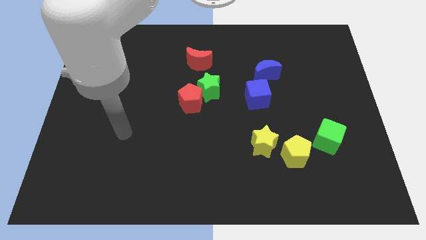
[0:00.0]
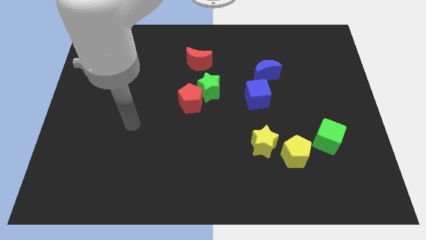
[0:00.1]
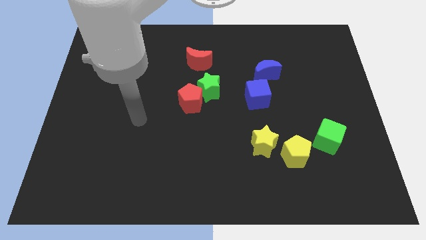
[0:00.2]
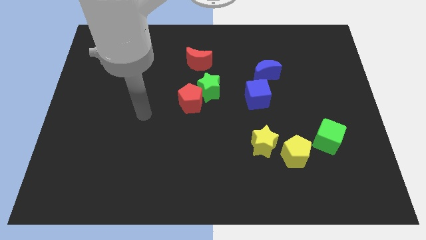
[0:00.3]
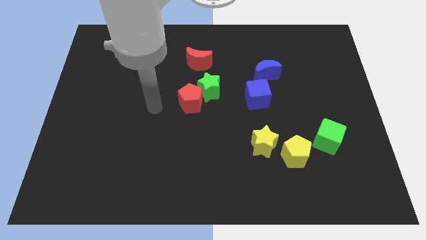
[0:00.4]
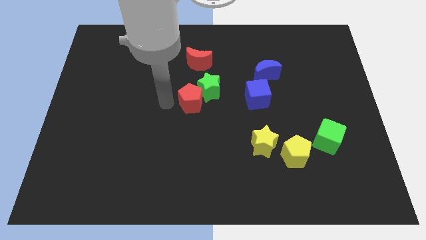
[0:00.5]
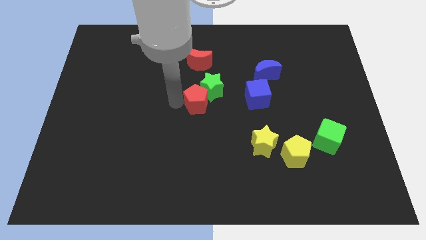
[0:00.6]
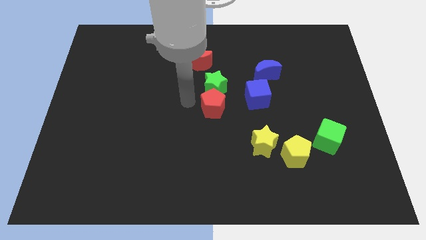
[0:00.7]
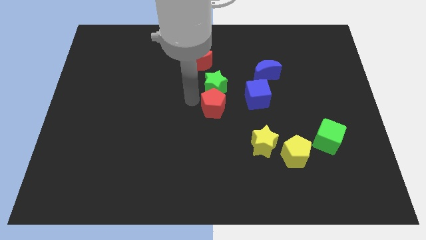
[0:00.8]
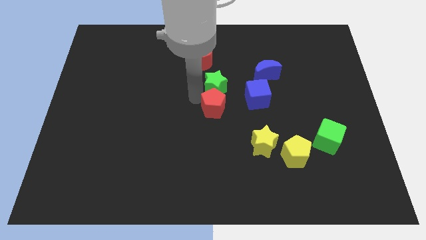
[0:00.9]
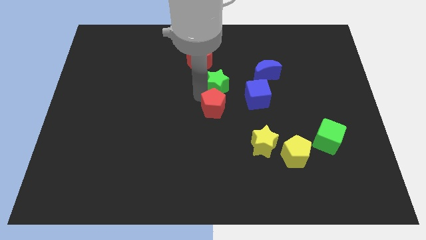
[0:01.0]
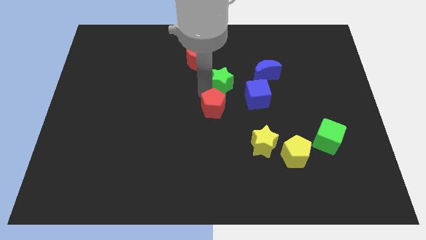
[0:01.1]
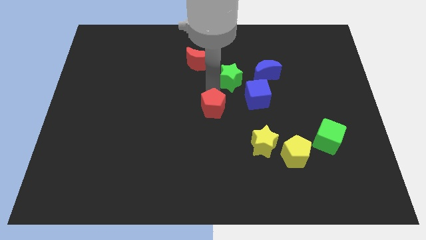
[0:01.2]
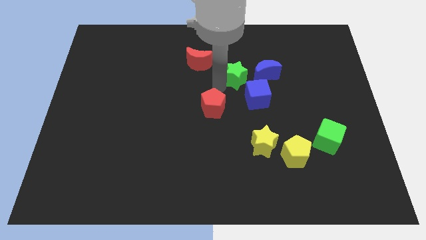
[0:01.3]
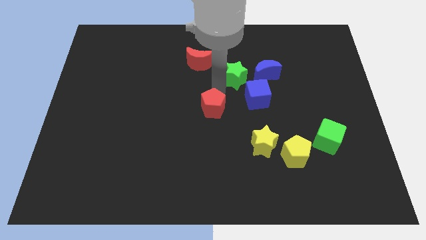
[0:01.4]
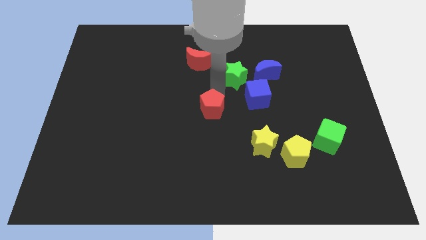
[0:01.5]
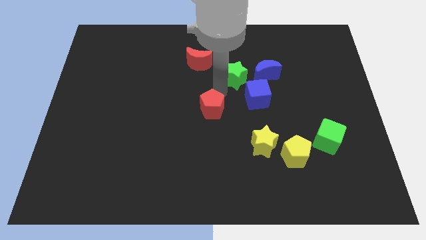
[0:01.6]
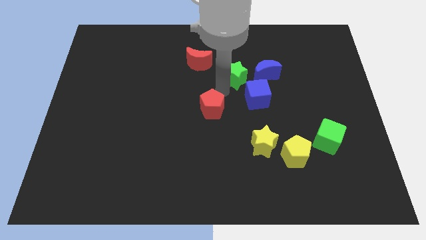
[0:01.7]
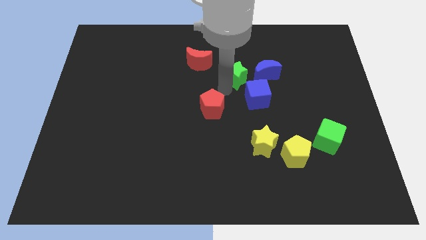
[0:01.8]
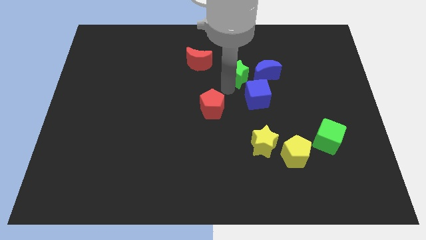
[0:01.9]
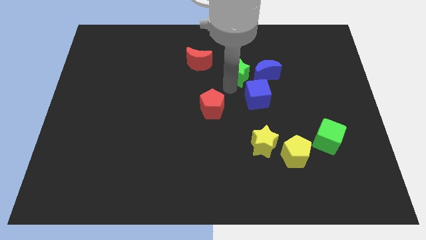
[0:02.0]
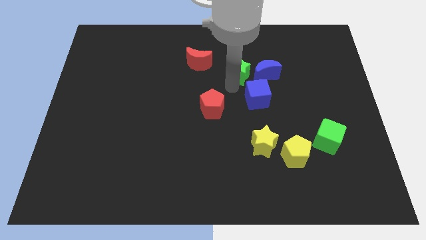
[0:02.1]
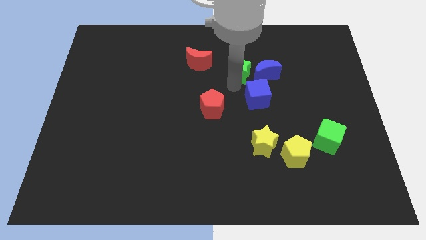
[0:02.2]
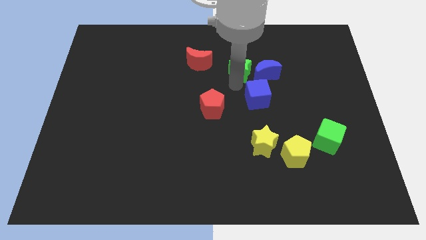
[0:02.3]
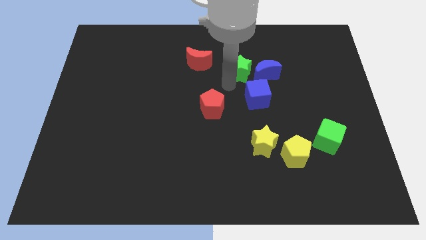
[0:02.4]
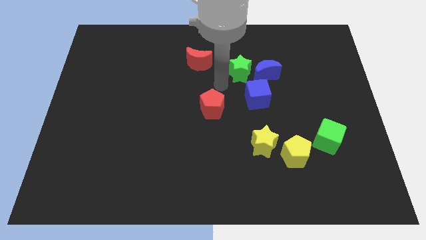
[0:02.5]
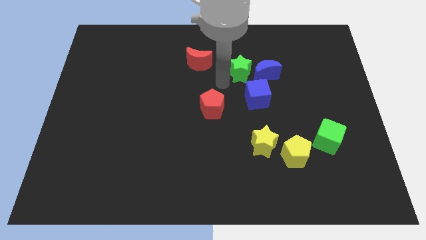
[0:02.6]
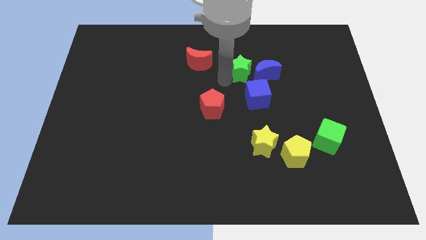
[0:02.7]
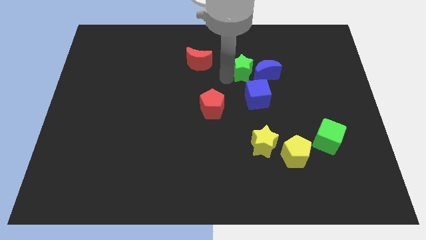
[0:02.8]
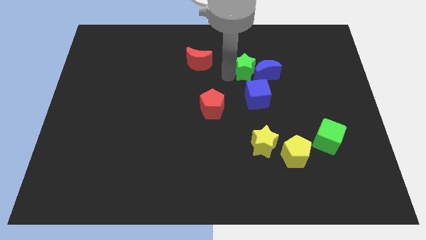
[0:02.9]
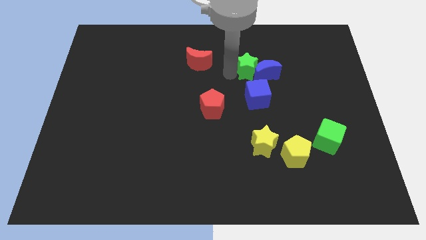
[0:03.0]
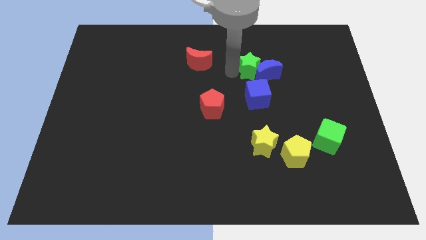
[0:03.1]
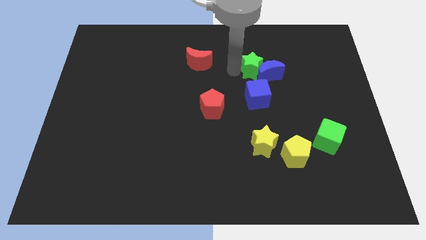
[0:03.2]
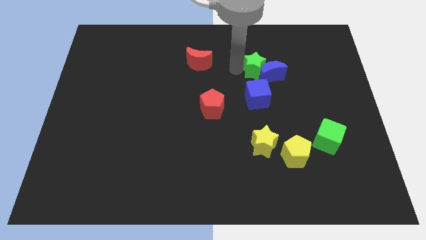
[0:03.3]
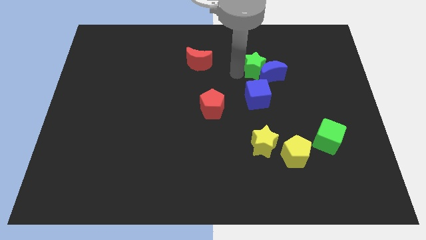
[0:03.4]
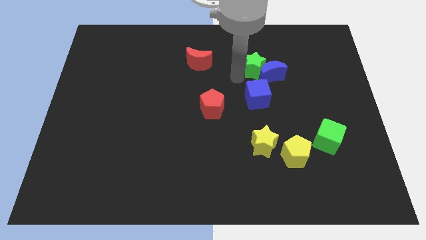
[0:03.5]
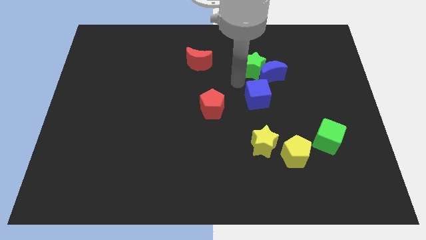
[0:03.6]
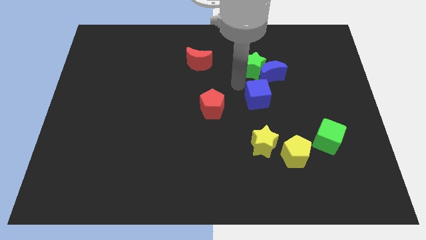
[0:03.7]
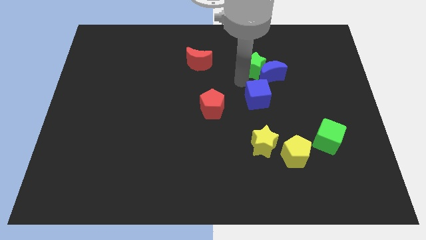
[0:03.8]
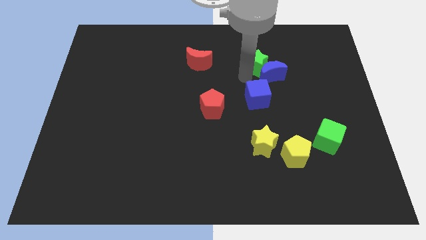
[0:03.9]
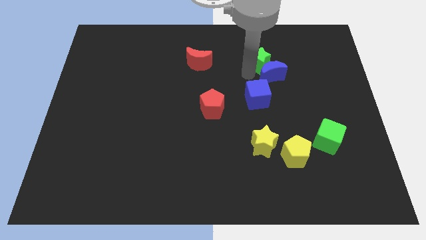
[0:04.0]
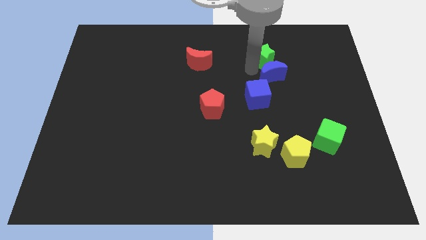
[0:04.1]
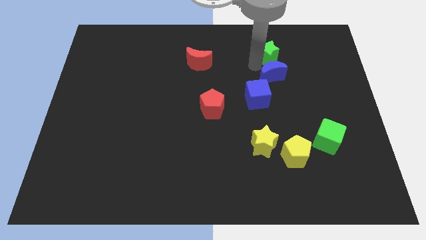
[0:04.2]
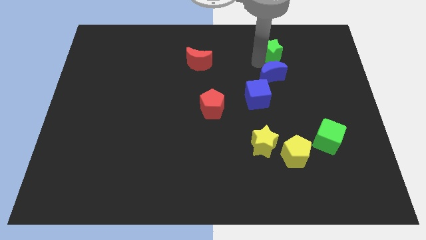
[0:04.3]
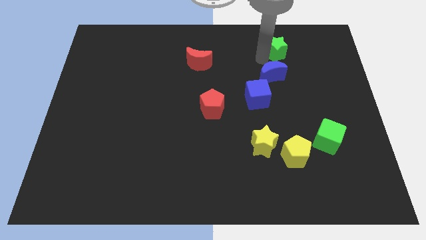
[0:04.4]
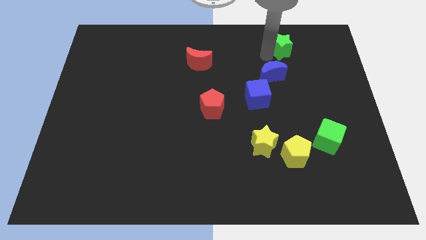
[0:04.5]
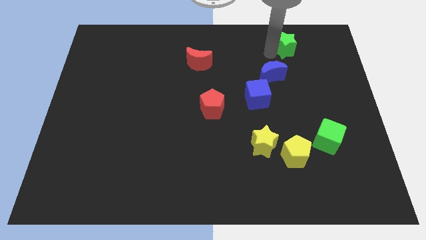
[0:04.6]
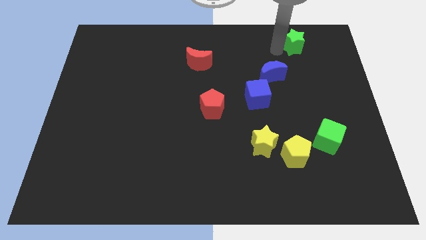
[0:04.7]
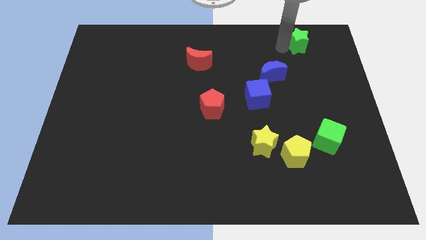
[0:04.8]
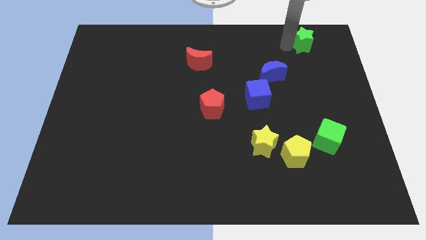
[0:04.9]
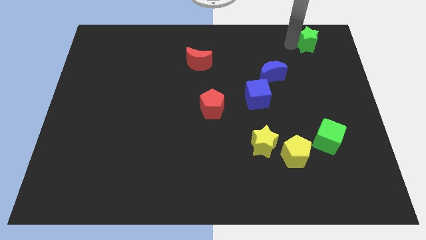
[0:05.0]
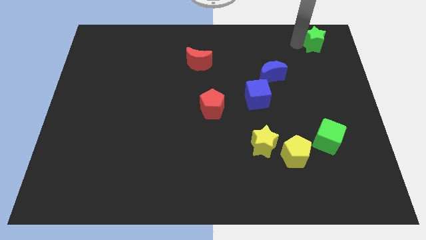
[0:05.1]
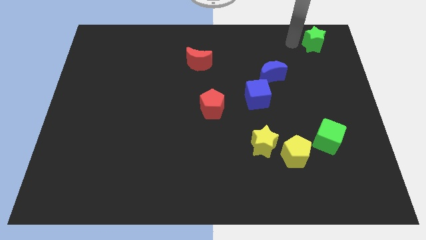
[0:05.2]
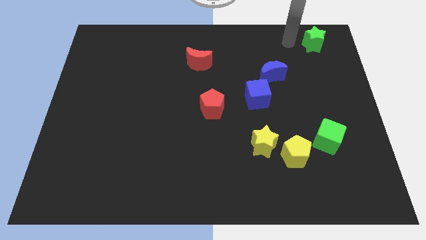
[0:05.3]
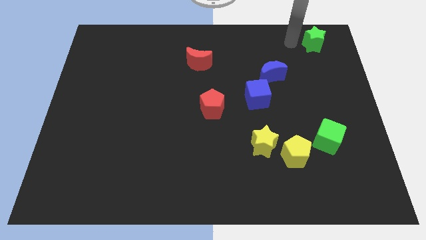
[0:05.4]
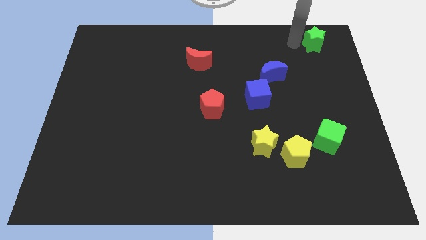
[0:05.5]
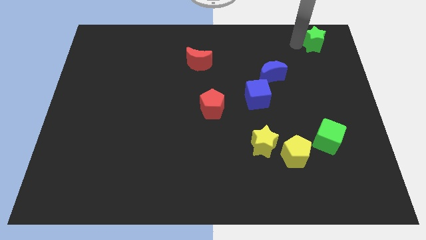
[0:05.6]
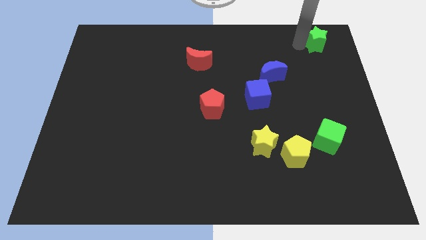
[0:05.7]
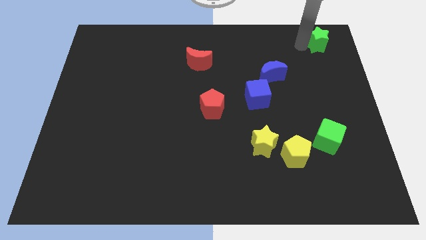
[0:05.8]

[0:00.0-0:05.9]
push the green star to the top right

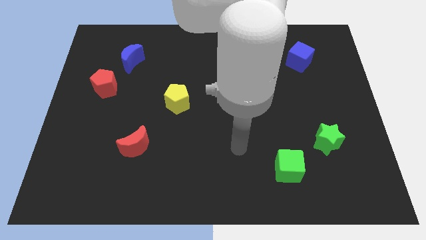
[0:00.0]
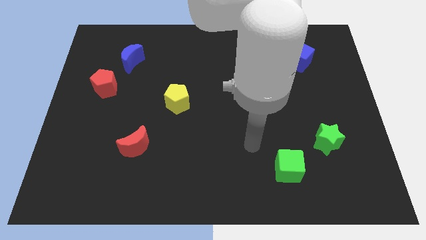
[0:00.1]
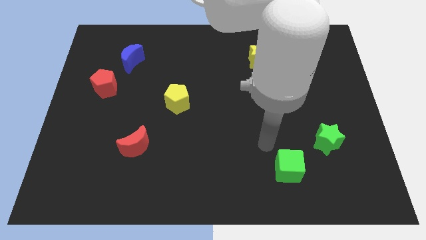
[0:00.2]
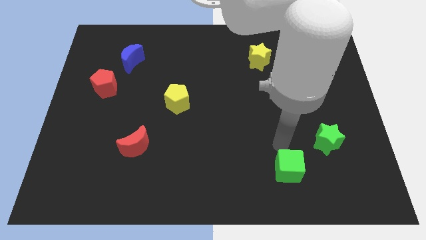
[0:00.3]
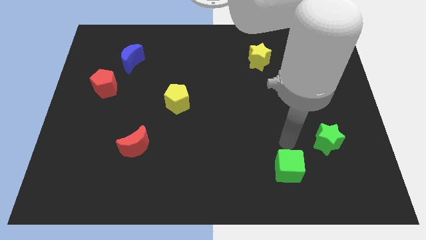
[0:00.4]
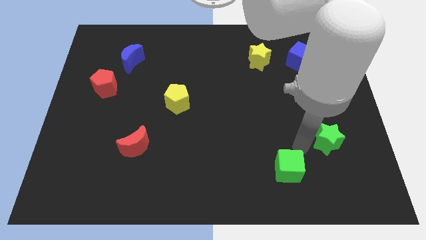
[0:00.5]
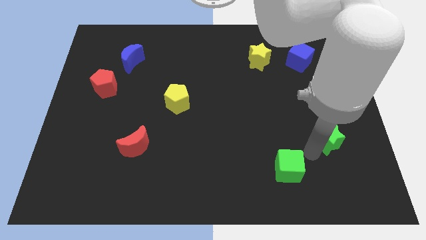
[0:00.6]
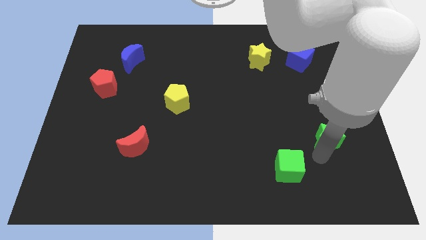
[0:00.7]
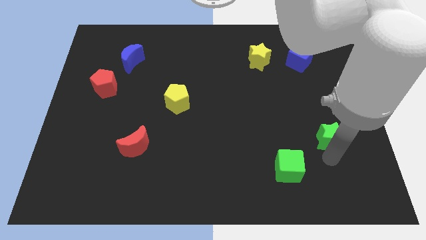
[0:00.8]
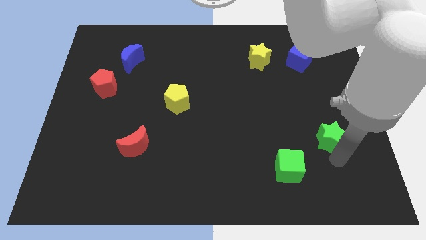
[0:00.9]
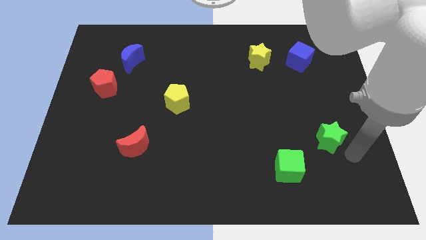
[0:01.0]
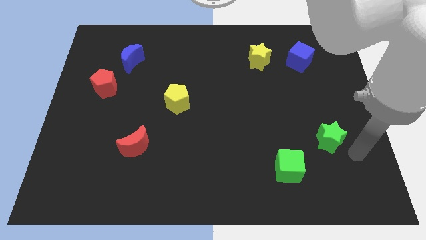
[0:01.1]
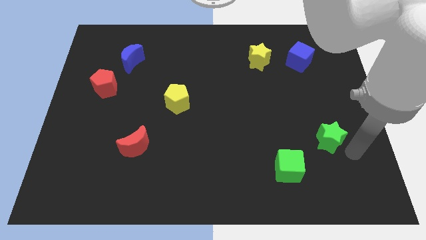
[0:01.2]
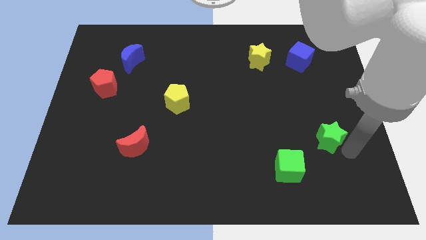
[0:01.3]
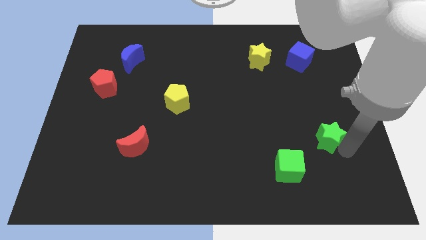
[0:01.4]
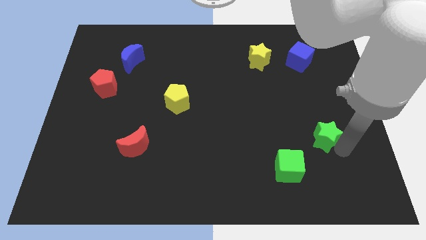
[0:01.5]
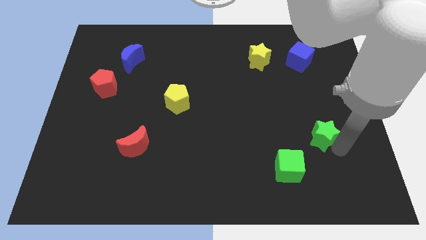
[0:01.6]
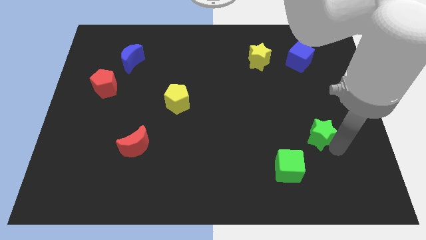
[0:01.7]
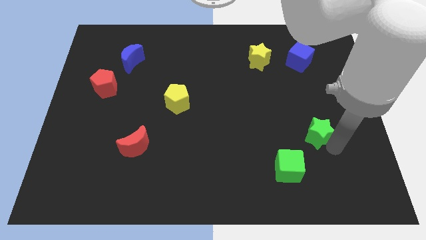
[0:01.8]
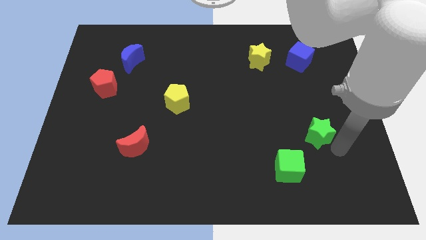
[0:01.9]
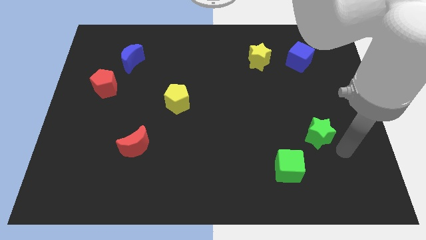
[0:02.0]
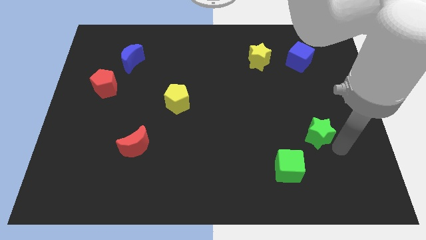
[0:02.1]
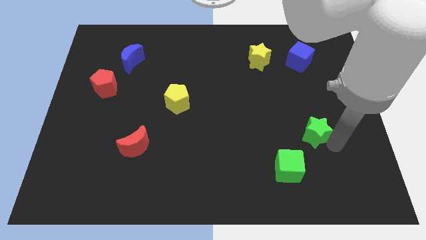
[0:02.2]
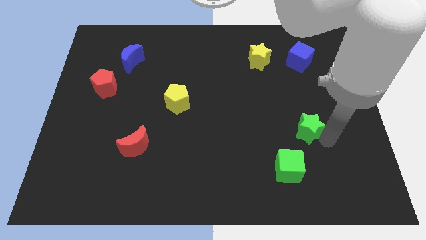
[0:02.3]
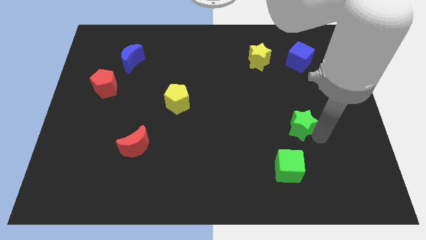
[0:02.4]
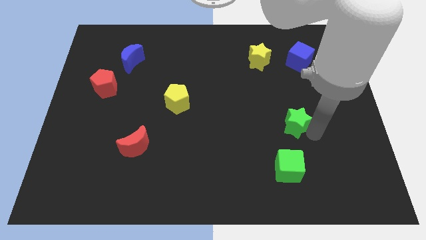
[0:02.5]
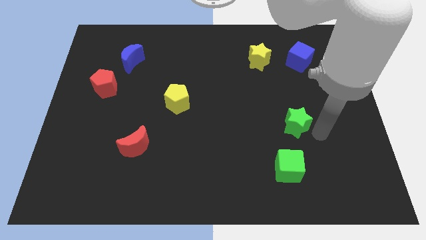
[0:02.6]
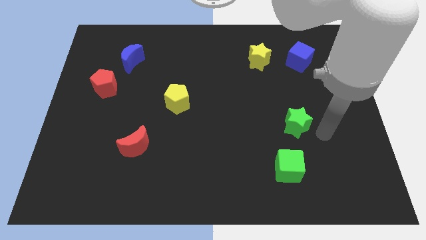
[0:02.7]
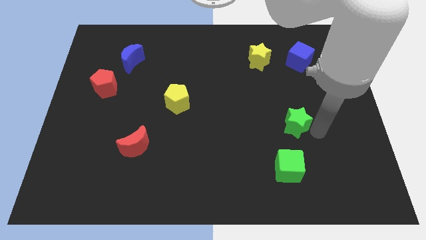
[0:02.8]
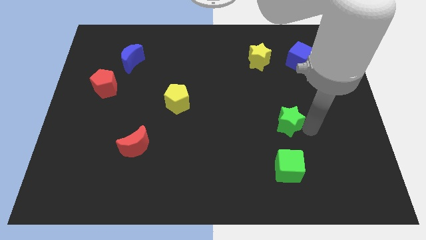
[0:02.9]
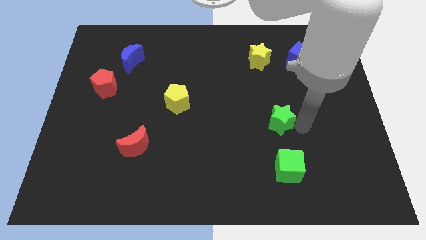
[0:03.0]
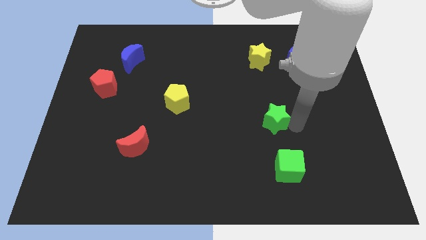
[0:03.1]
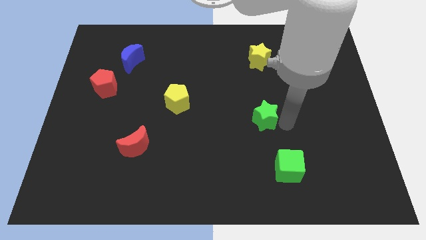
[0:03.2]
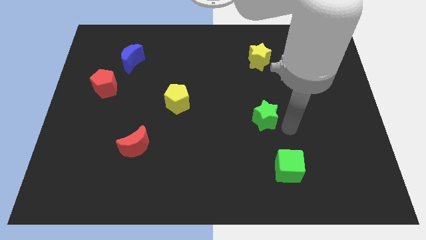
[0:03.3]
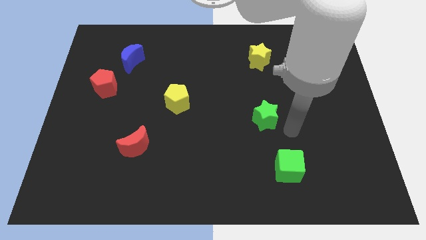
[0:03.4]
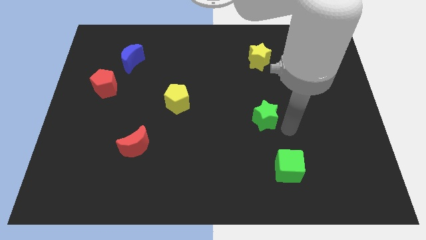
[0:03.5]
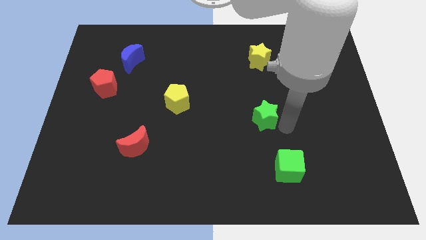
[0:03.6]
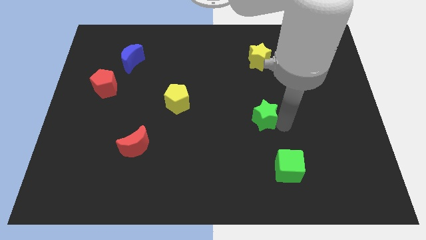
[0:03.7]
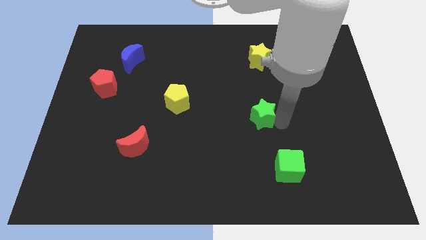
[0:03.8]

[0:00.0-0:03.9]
slide the green star to the middle of the board
